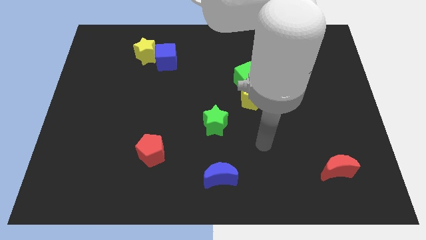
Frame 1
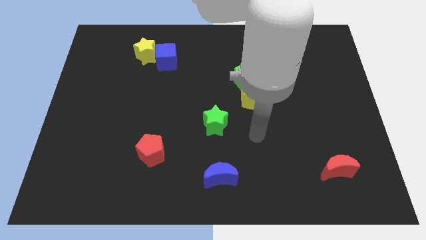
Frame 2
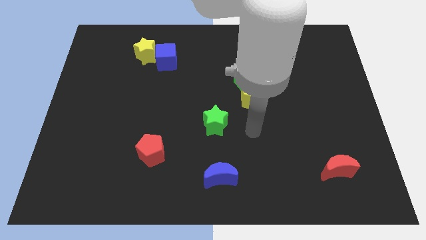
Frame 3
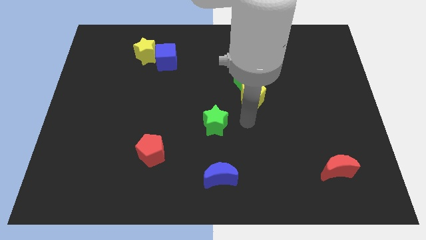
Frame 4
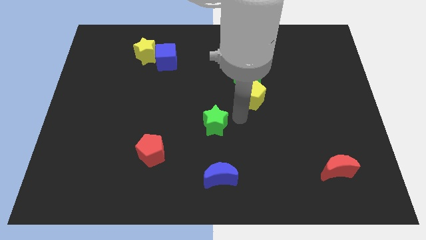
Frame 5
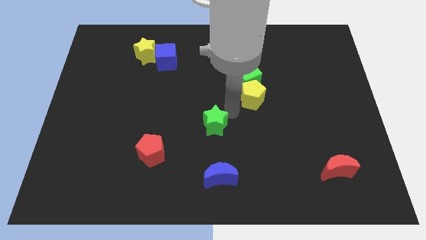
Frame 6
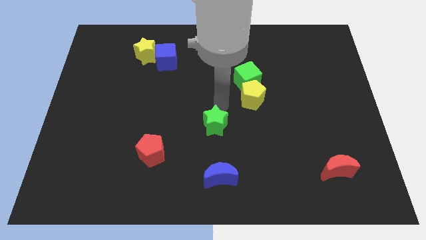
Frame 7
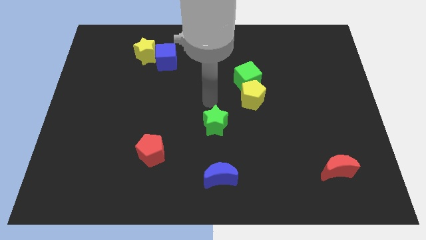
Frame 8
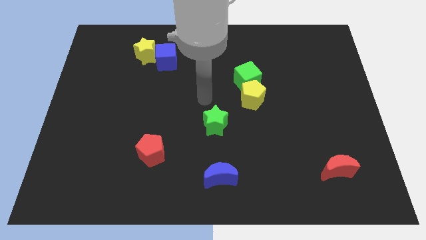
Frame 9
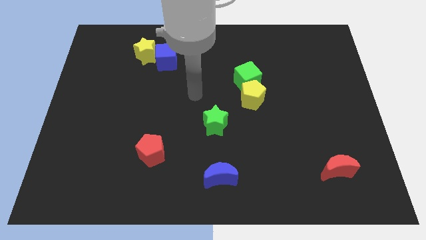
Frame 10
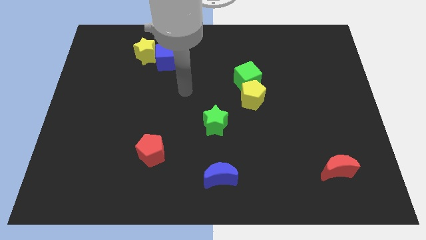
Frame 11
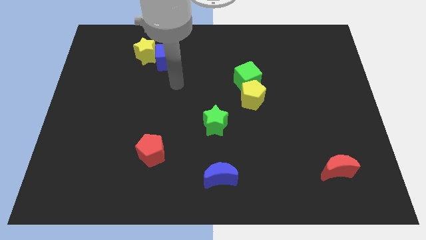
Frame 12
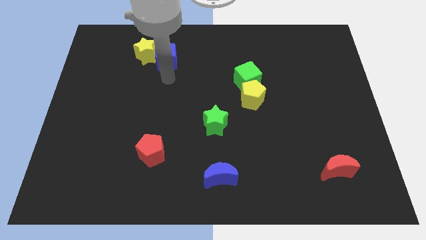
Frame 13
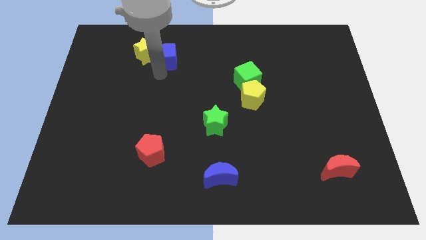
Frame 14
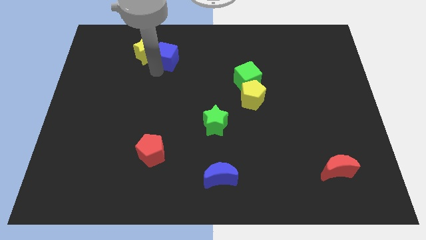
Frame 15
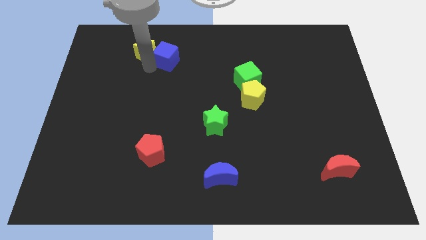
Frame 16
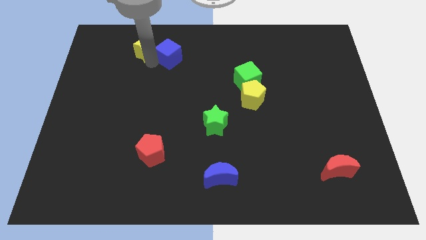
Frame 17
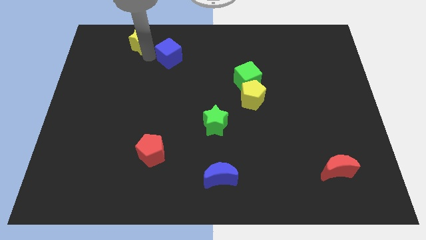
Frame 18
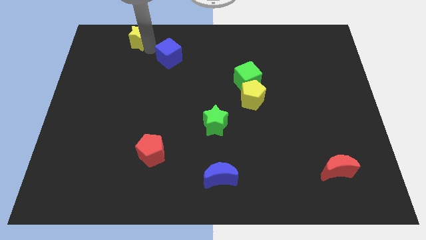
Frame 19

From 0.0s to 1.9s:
move the blue cube away from the yellow star

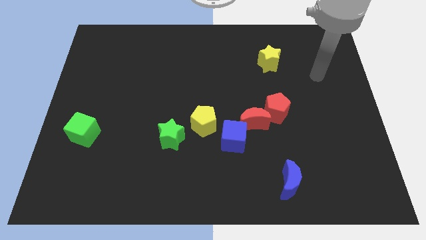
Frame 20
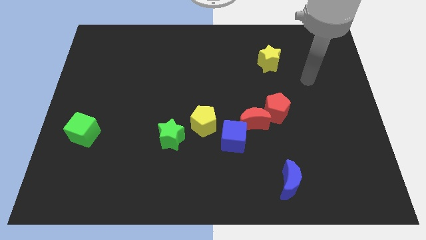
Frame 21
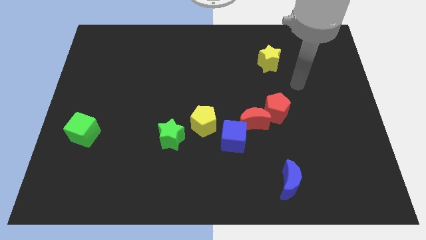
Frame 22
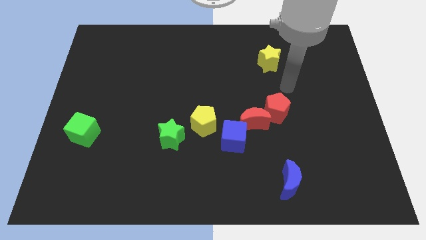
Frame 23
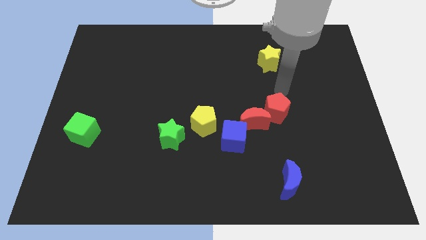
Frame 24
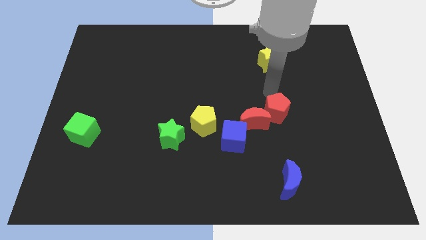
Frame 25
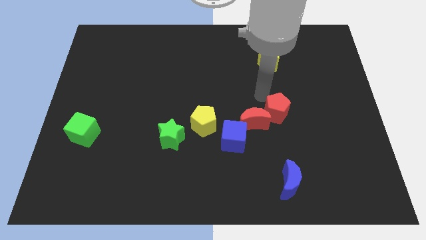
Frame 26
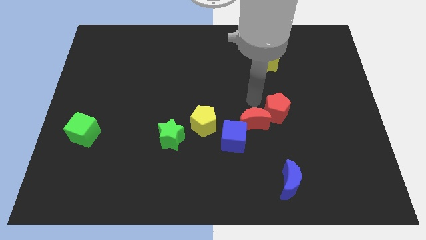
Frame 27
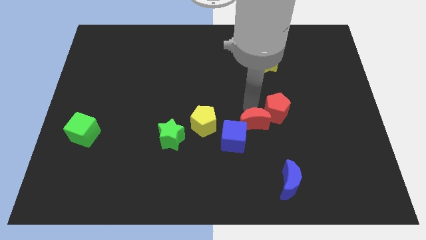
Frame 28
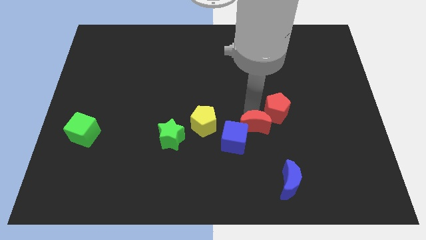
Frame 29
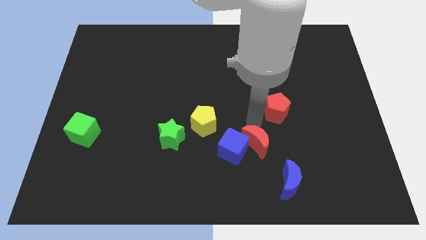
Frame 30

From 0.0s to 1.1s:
pull the red pentagon apart from the red moon

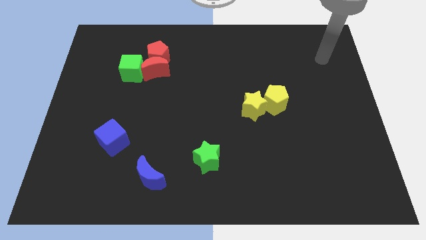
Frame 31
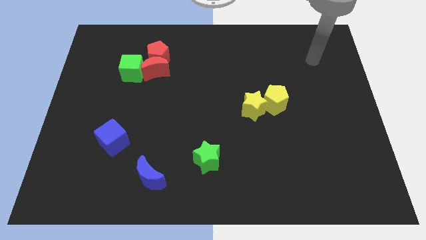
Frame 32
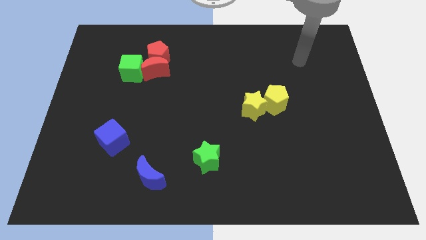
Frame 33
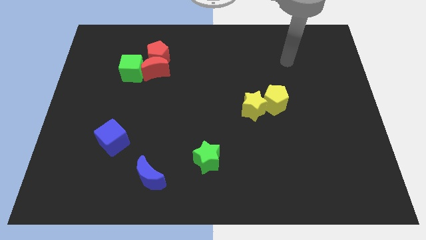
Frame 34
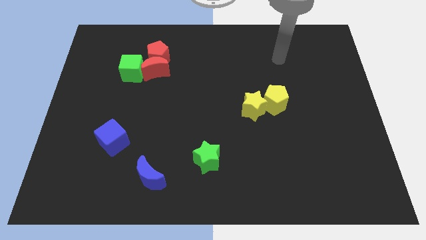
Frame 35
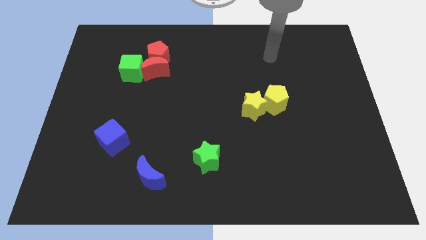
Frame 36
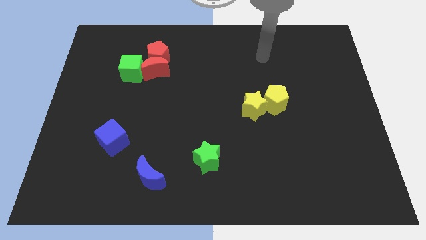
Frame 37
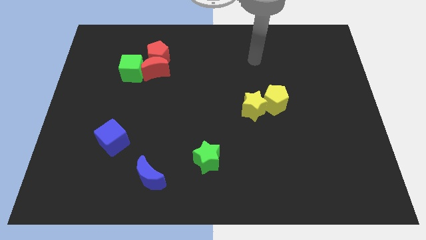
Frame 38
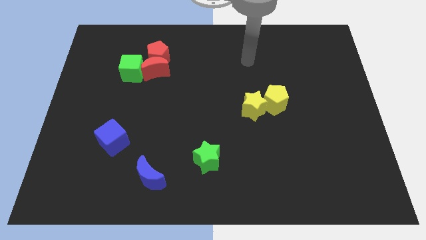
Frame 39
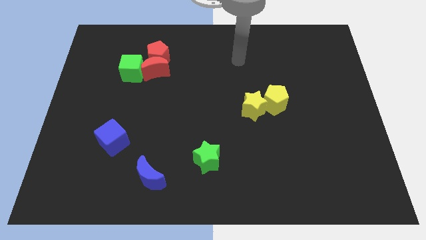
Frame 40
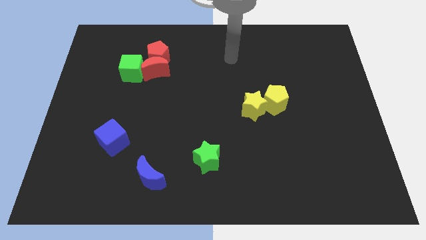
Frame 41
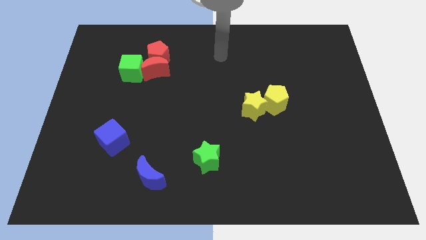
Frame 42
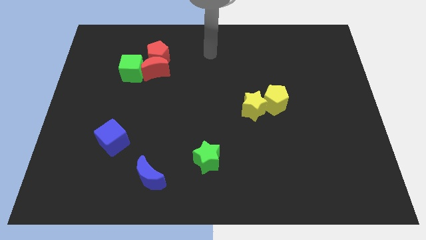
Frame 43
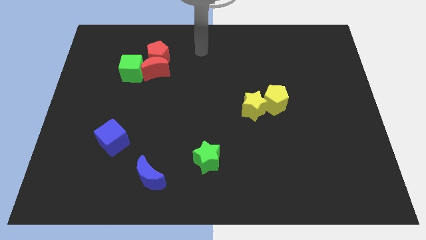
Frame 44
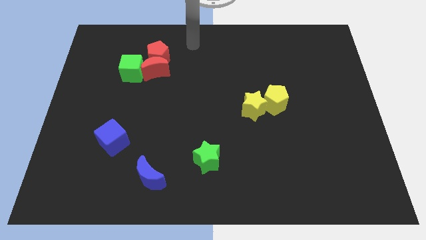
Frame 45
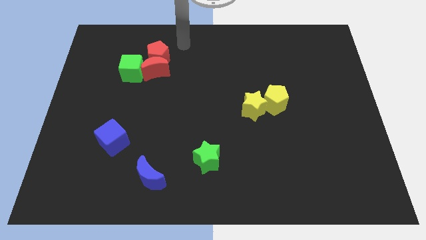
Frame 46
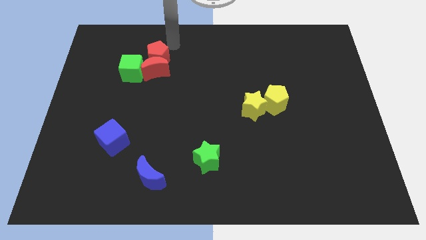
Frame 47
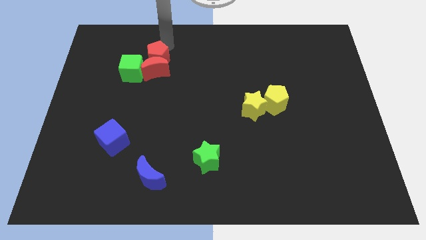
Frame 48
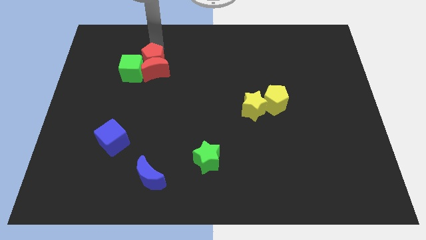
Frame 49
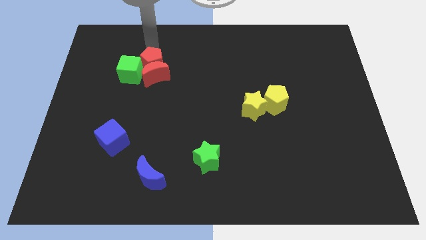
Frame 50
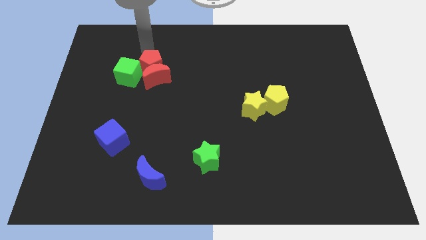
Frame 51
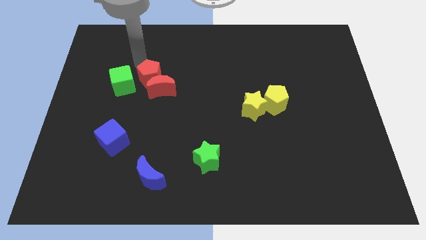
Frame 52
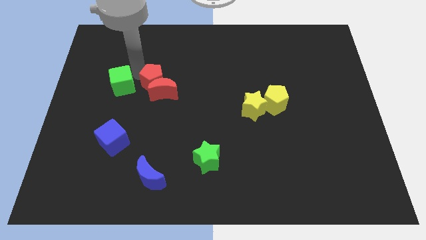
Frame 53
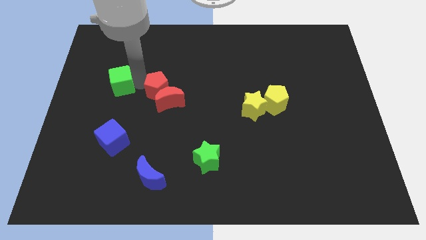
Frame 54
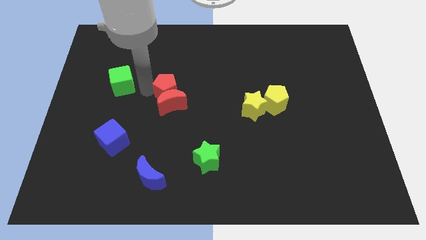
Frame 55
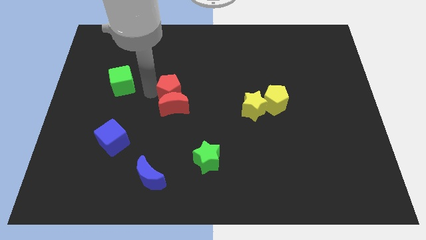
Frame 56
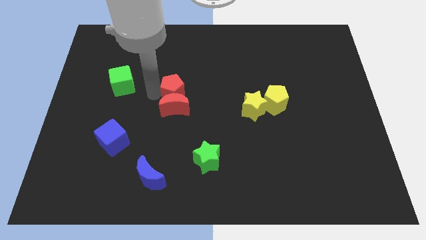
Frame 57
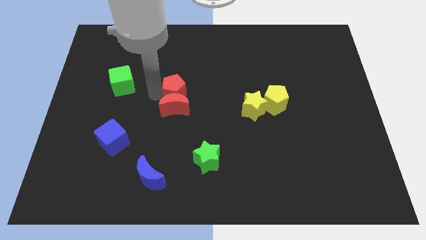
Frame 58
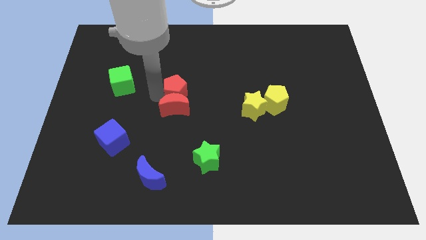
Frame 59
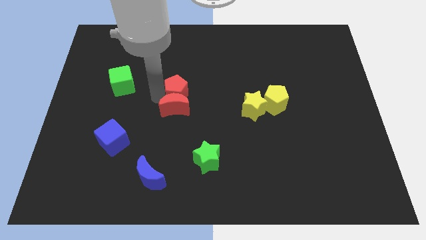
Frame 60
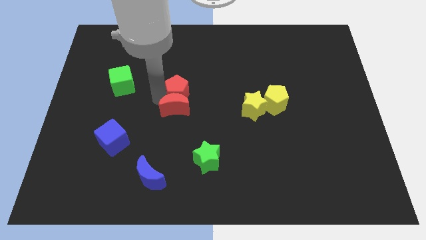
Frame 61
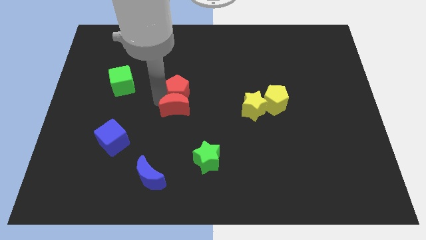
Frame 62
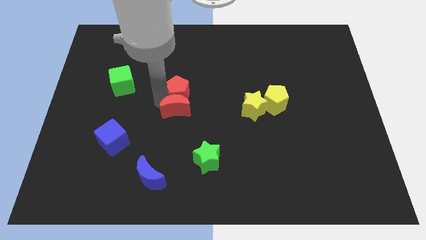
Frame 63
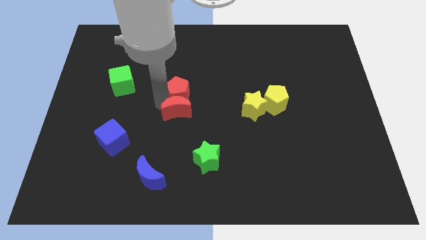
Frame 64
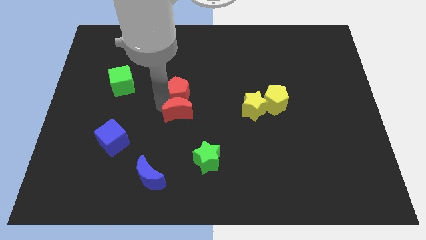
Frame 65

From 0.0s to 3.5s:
separate the red moon from the red pentagon and green cube

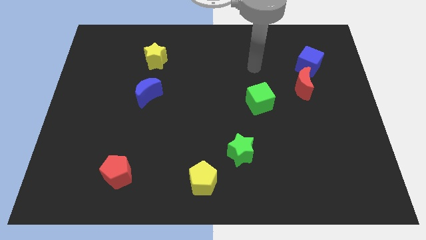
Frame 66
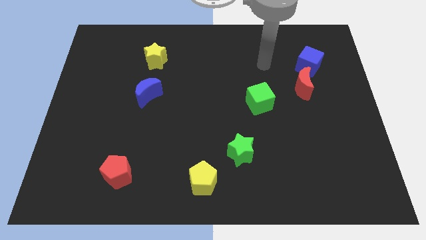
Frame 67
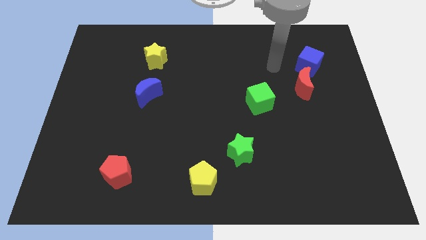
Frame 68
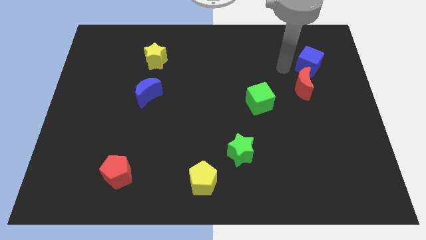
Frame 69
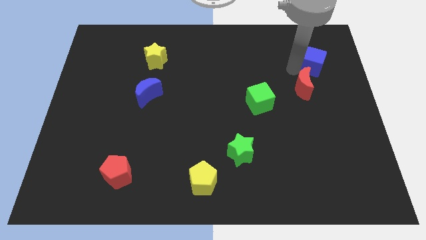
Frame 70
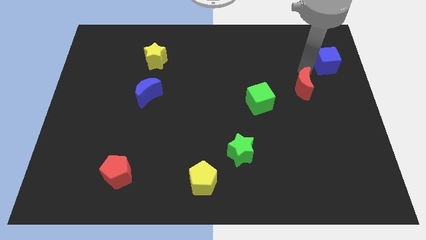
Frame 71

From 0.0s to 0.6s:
move the red moon away from the blue cube

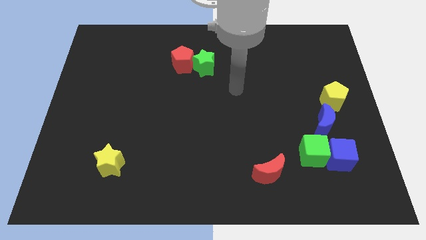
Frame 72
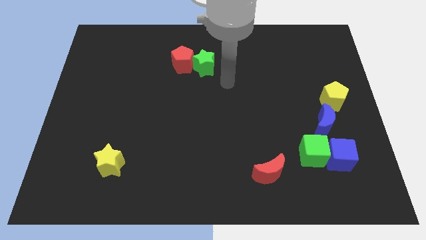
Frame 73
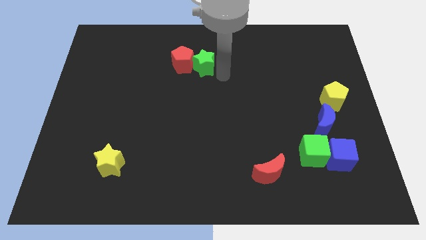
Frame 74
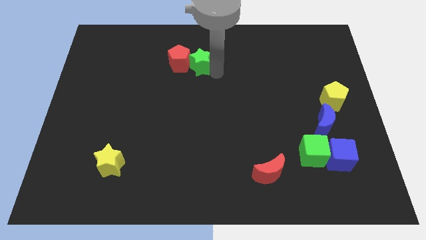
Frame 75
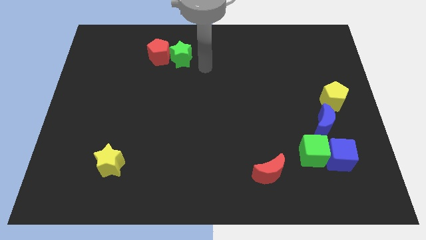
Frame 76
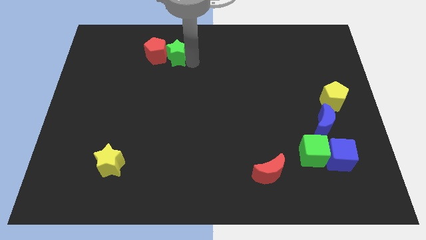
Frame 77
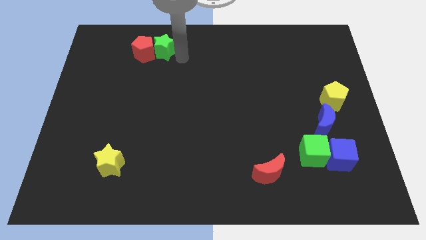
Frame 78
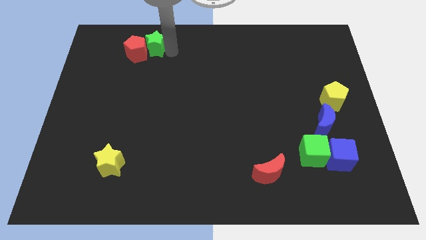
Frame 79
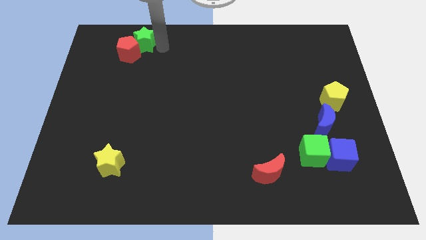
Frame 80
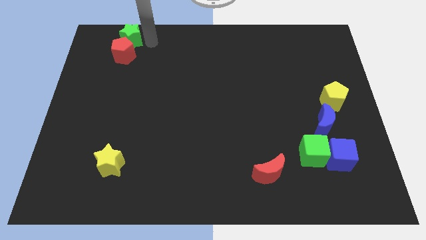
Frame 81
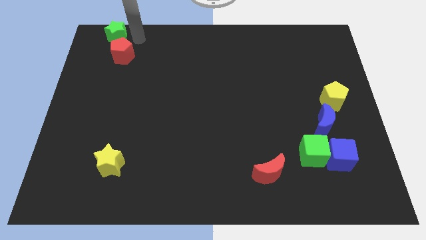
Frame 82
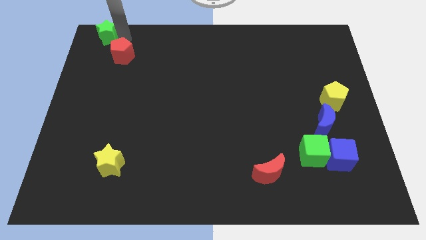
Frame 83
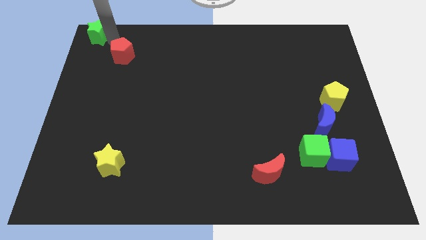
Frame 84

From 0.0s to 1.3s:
pull the red pentagon apart from the green star

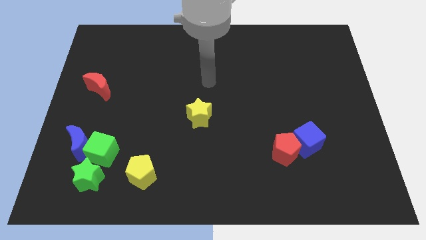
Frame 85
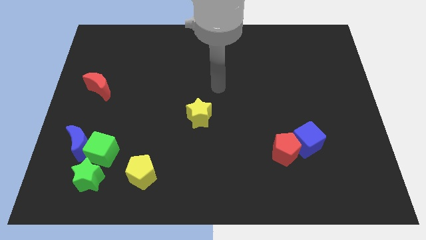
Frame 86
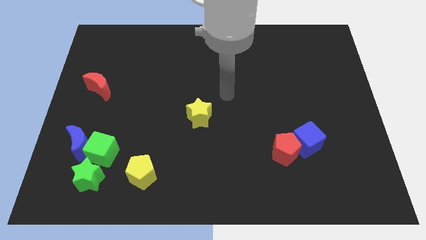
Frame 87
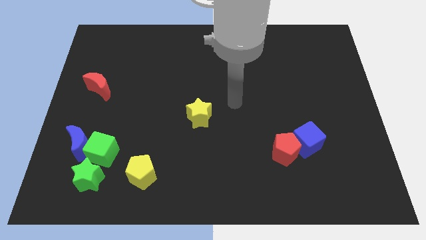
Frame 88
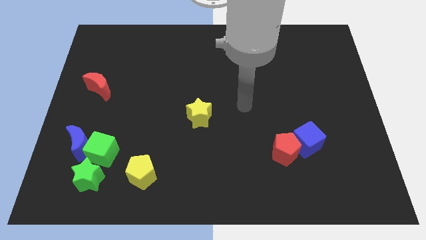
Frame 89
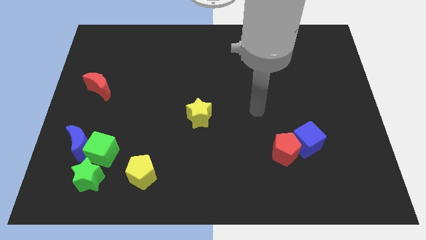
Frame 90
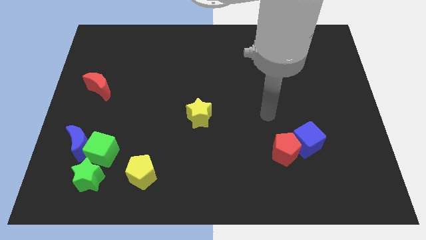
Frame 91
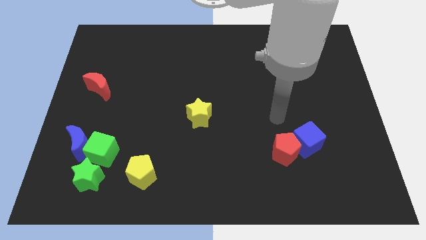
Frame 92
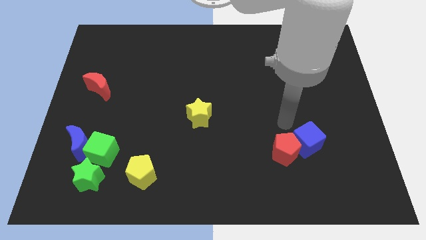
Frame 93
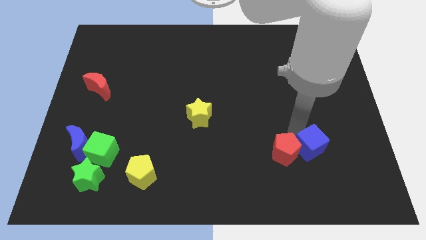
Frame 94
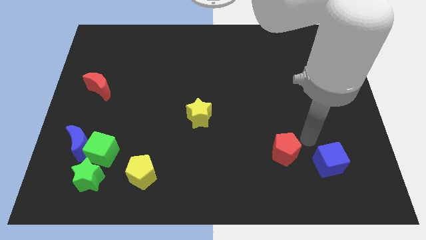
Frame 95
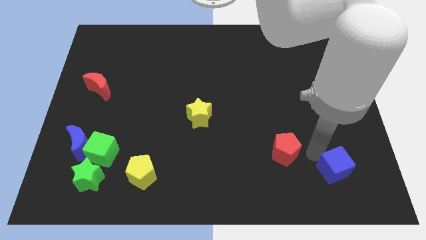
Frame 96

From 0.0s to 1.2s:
move the red pentagon away from the blue cube
